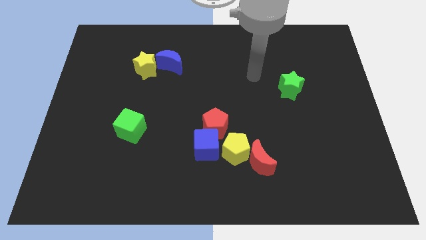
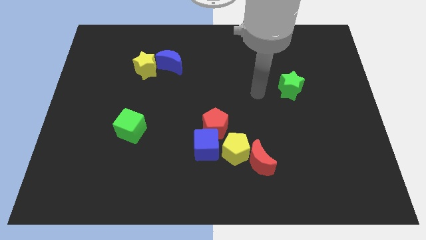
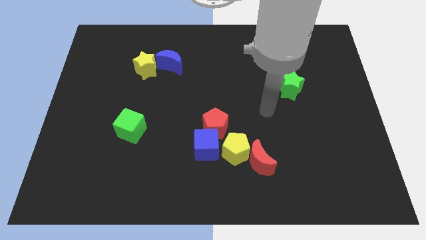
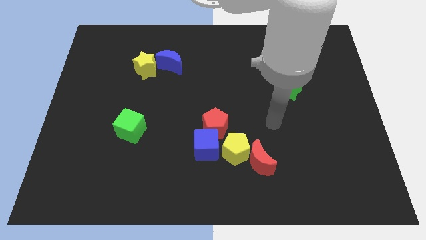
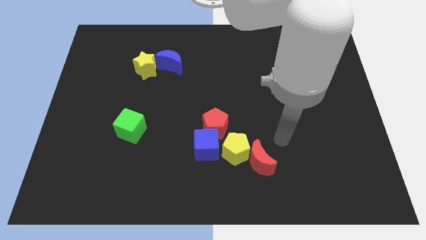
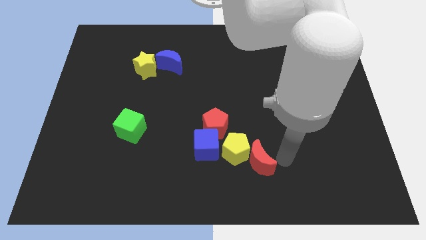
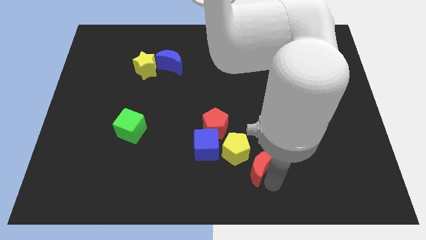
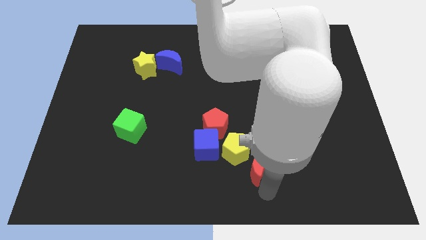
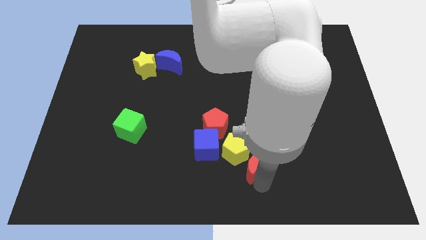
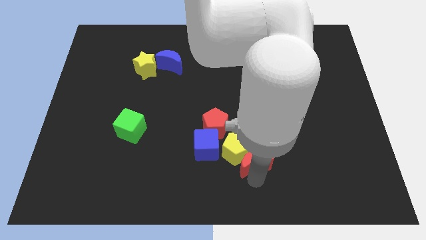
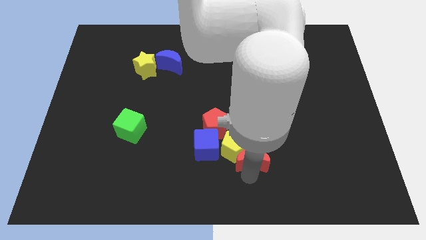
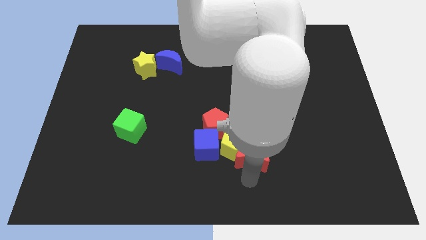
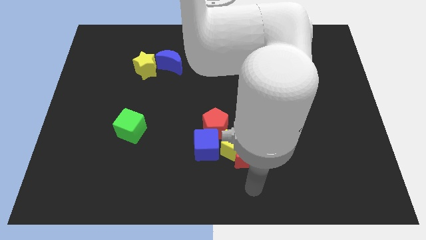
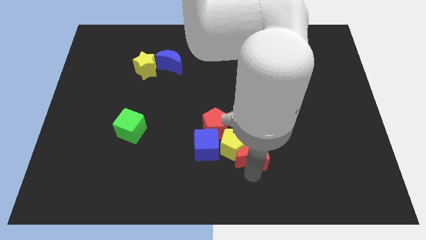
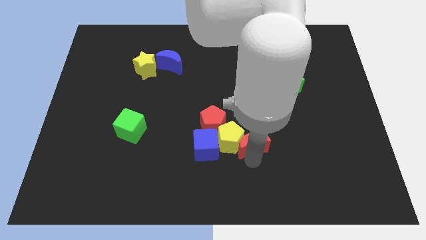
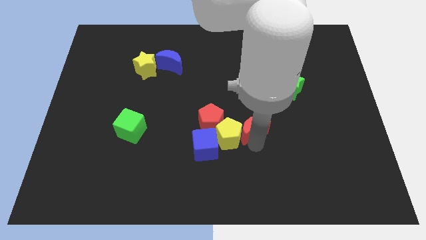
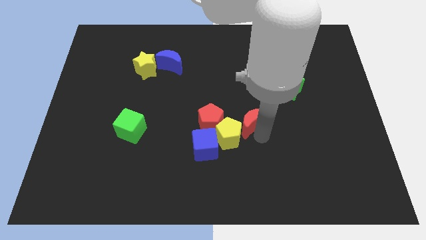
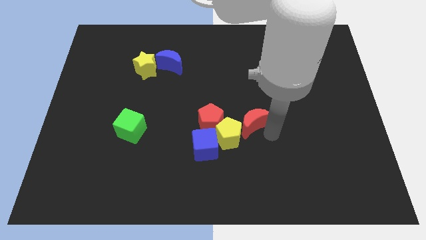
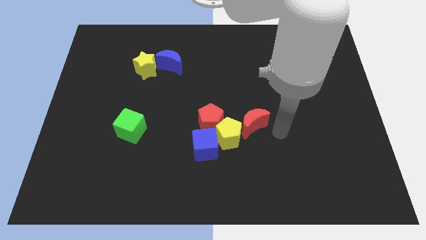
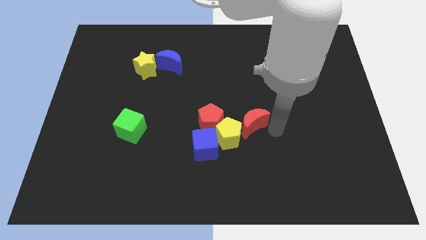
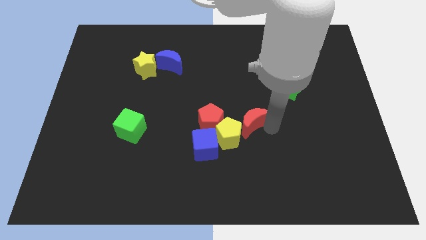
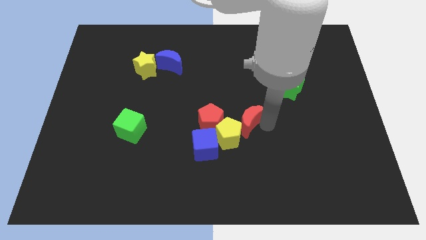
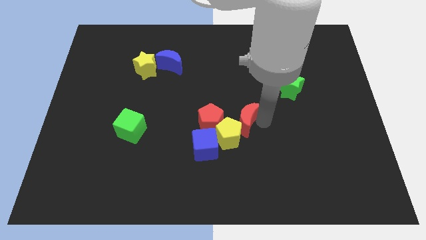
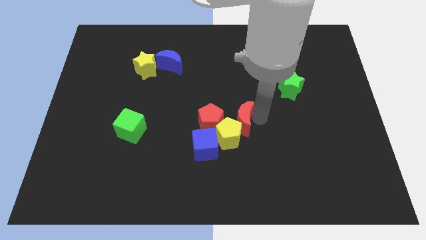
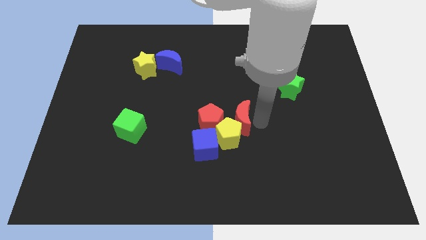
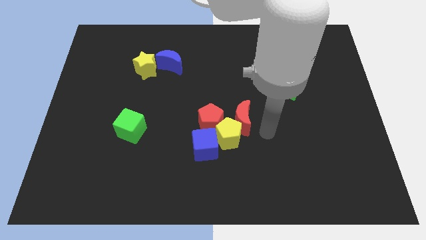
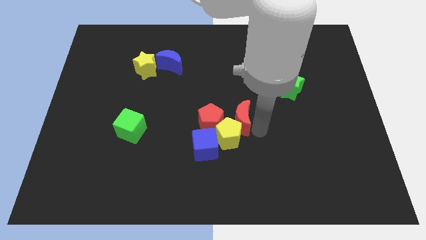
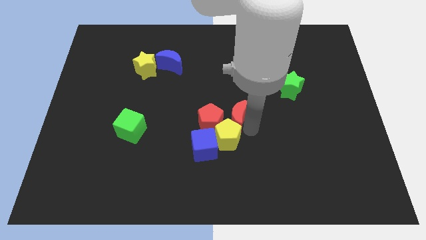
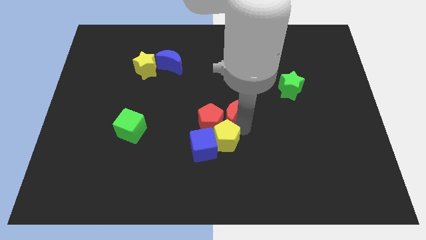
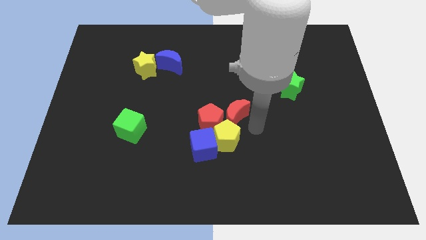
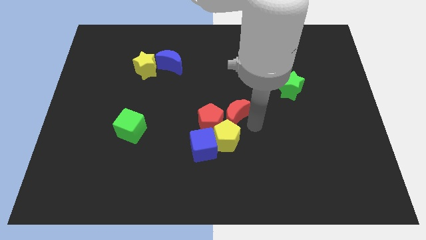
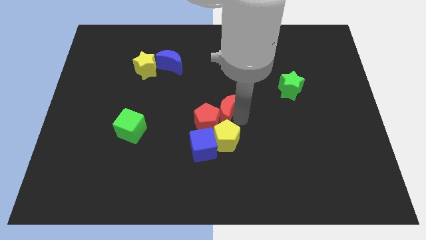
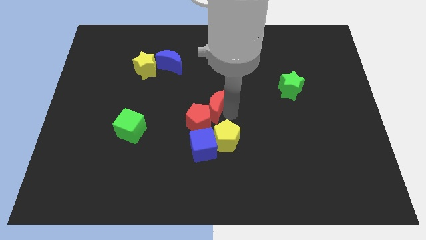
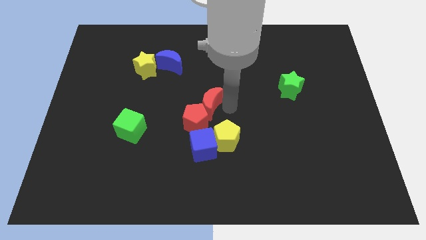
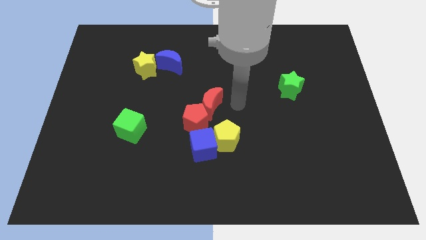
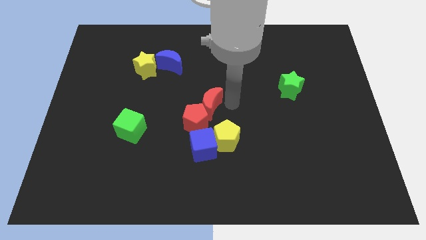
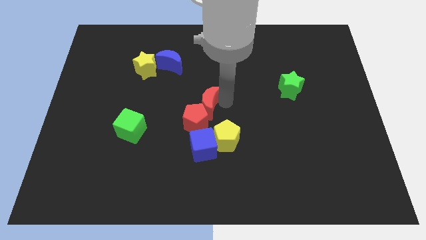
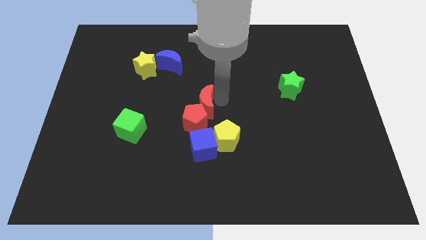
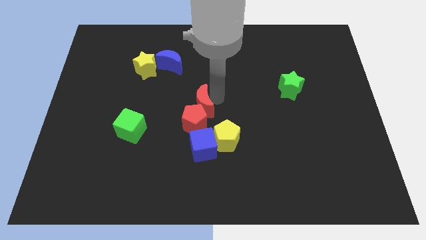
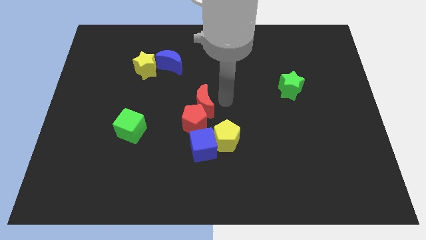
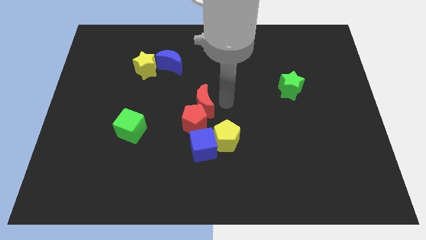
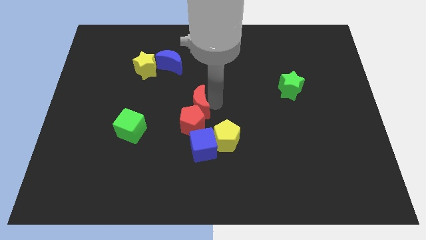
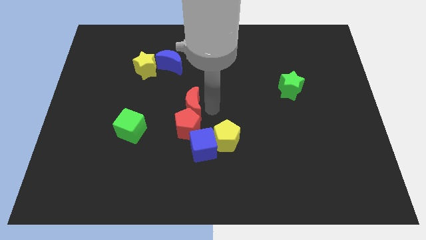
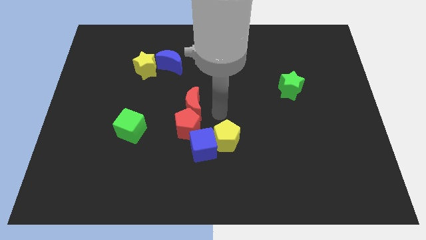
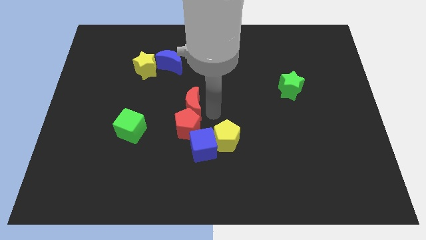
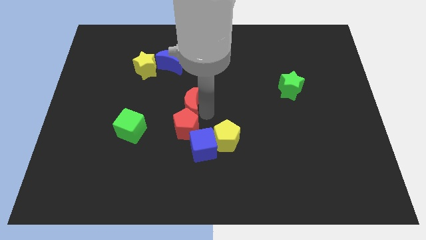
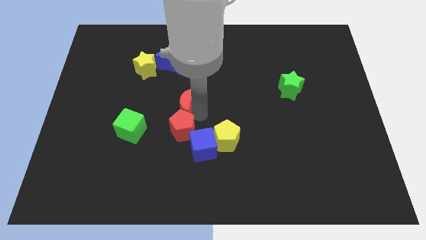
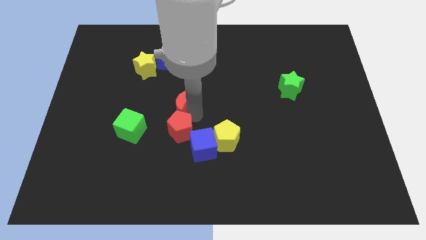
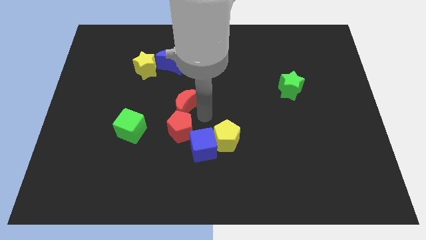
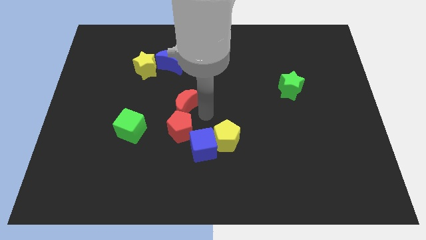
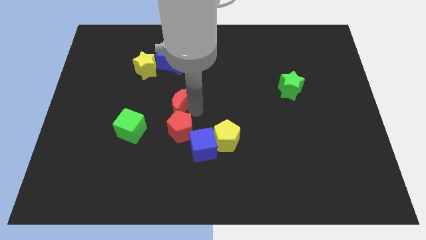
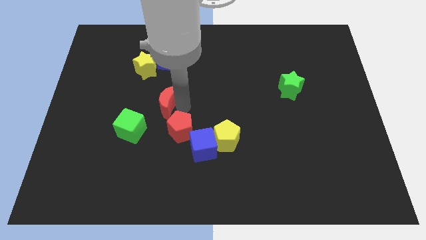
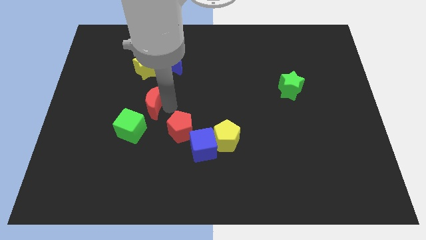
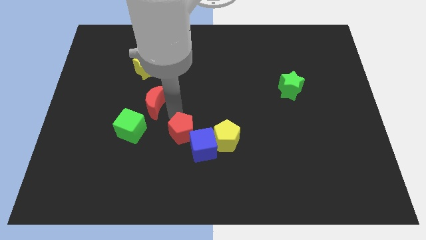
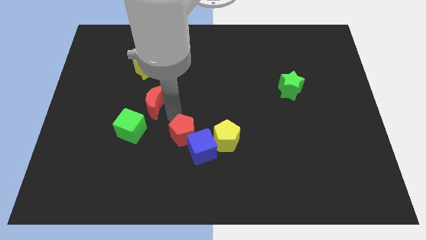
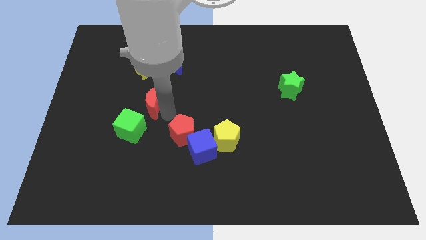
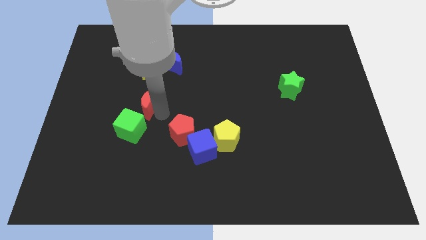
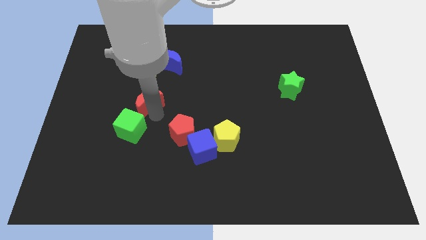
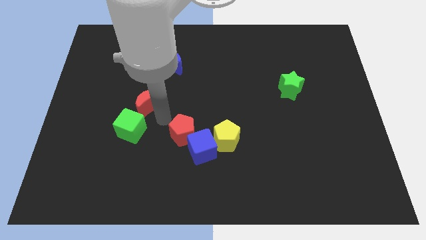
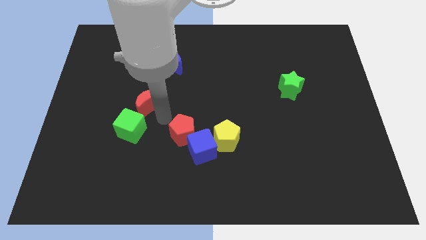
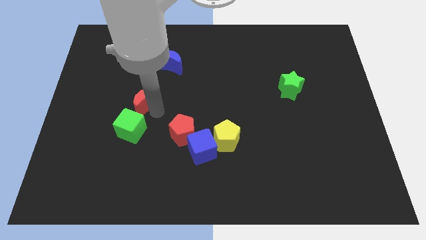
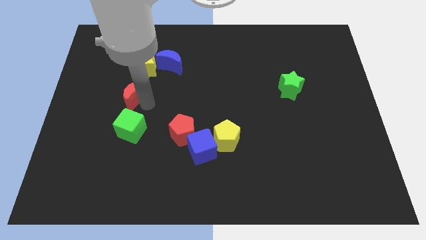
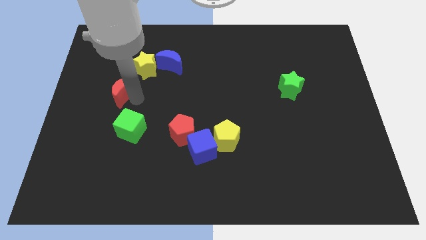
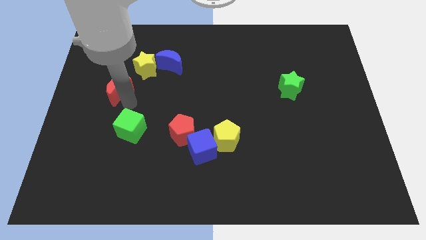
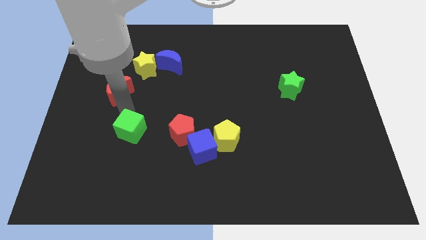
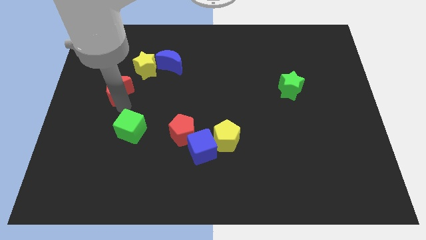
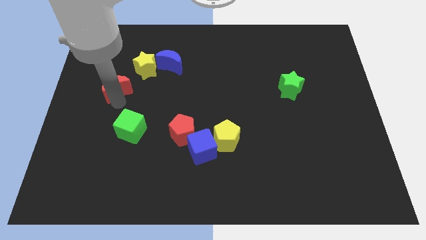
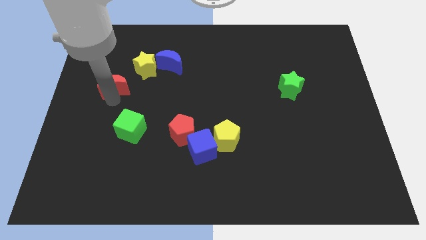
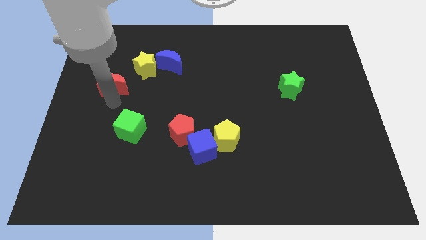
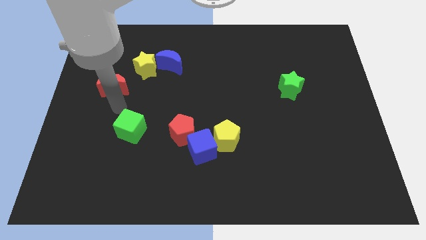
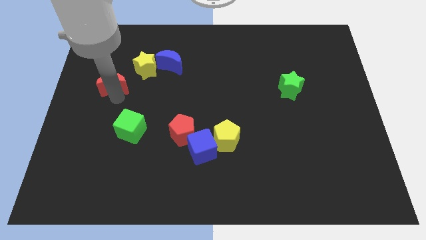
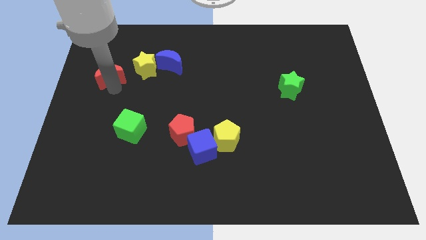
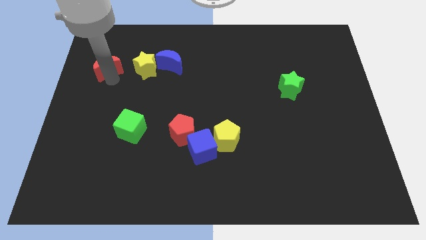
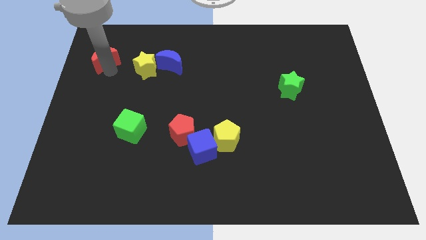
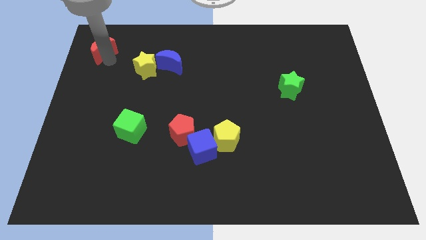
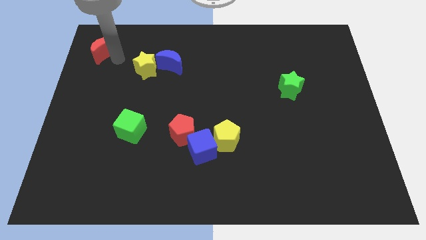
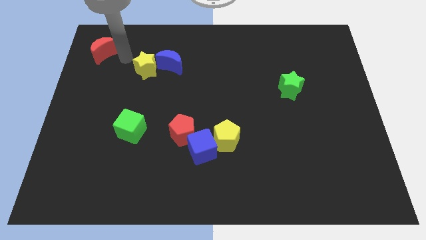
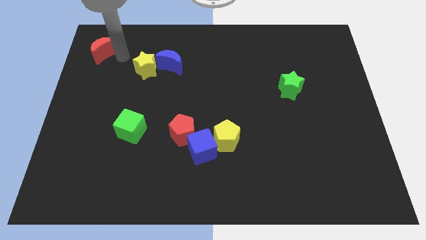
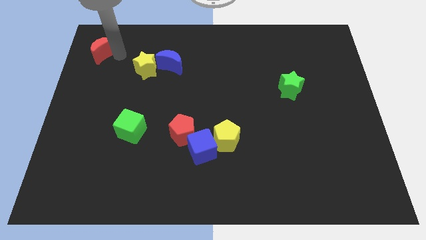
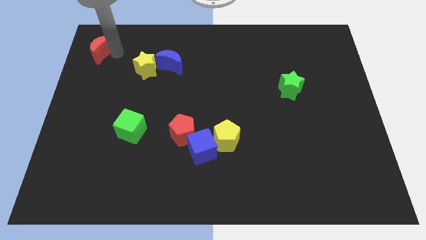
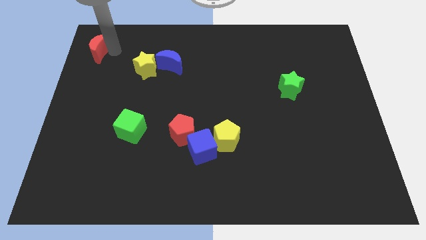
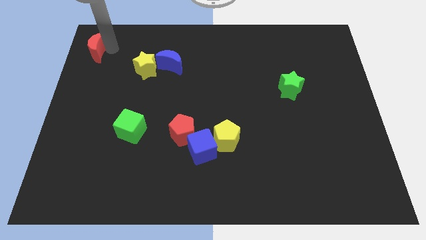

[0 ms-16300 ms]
push the red moon to the top left
